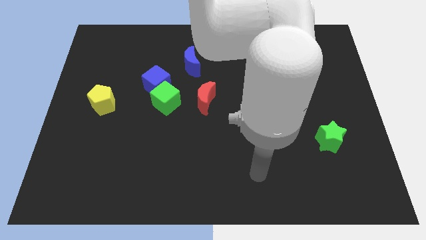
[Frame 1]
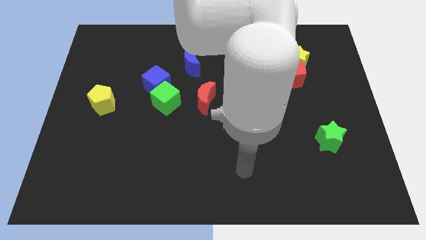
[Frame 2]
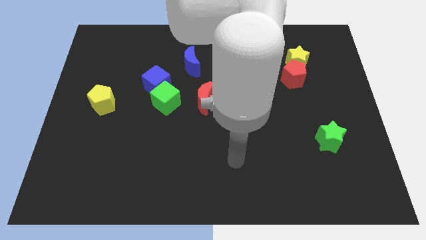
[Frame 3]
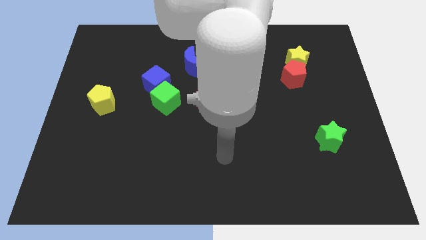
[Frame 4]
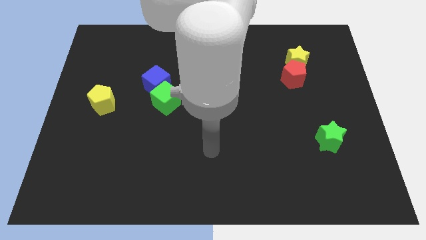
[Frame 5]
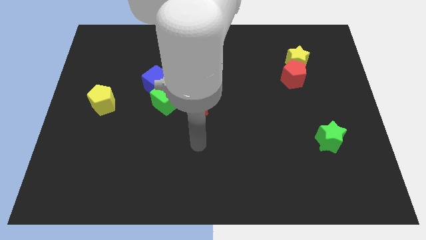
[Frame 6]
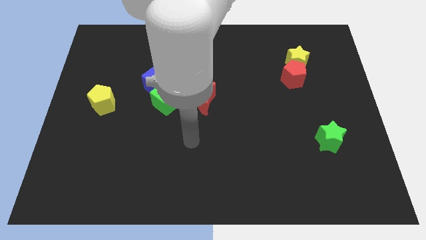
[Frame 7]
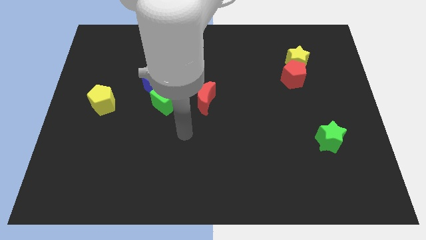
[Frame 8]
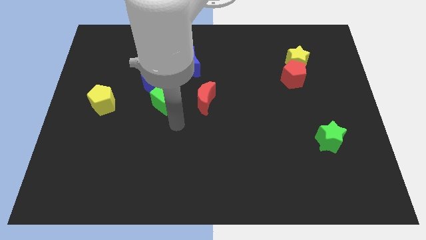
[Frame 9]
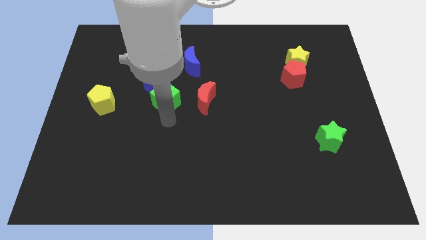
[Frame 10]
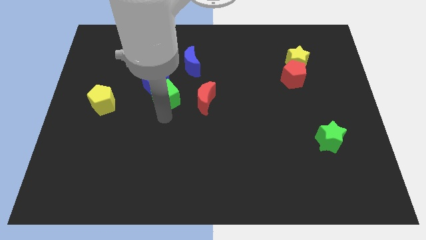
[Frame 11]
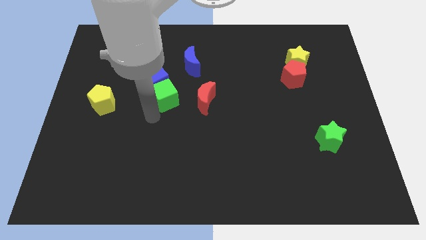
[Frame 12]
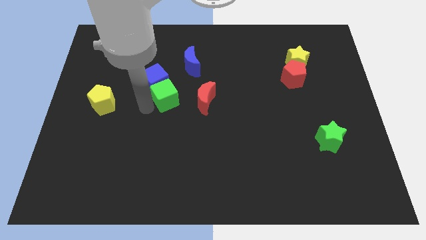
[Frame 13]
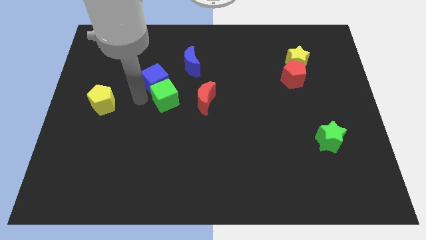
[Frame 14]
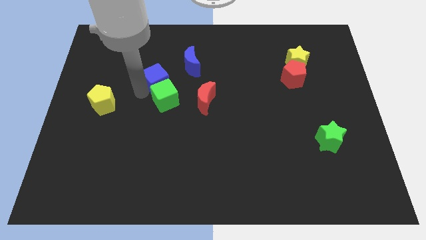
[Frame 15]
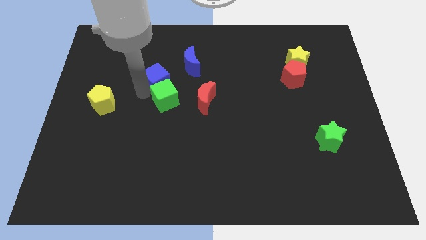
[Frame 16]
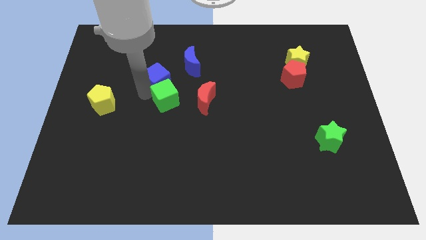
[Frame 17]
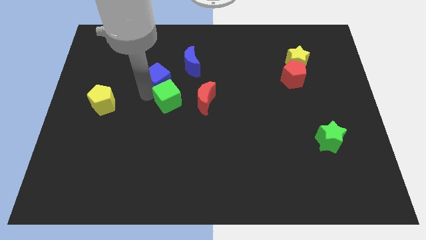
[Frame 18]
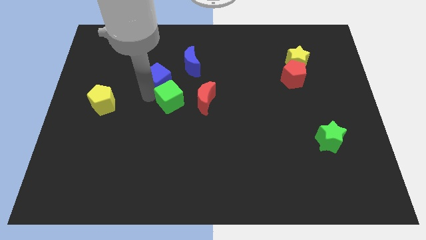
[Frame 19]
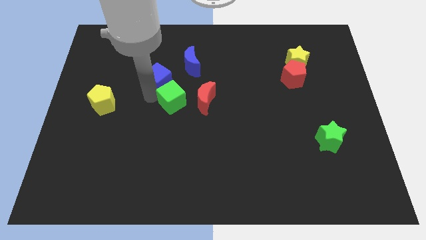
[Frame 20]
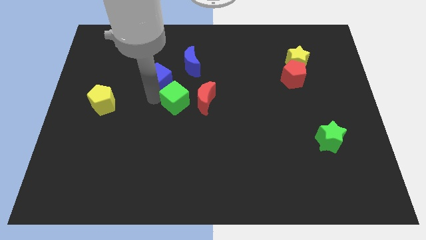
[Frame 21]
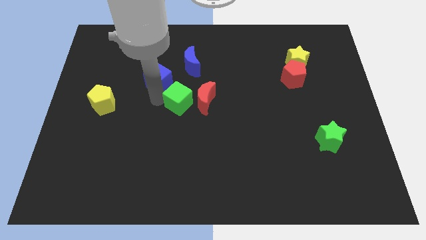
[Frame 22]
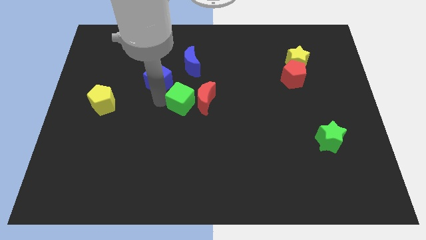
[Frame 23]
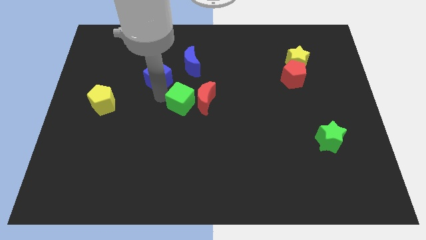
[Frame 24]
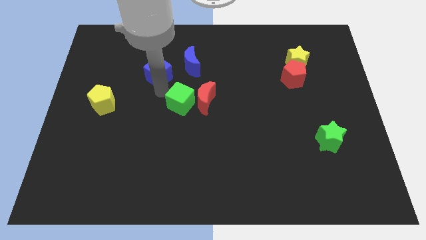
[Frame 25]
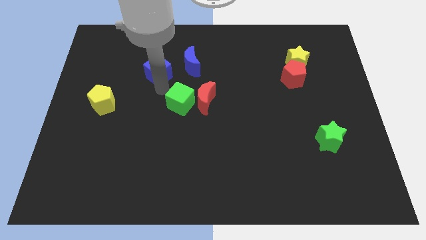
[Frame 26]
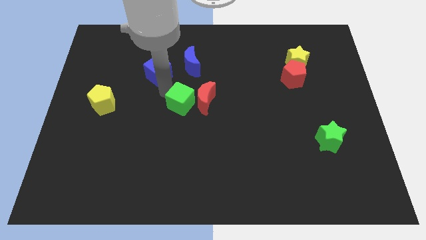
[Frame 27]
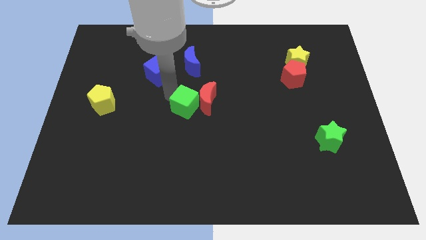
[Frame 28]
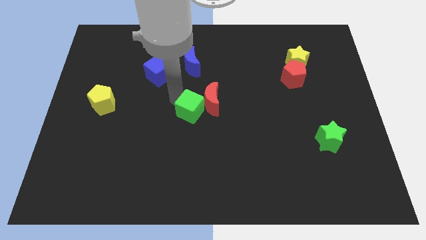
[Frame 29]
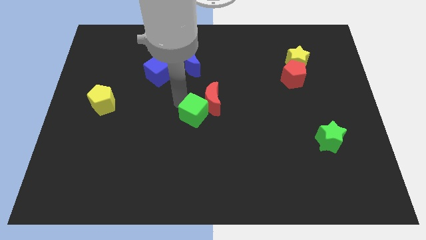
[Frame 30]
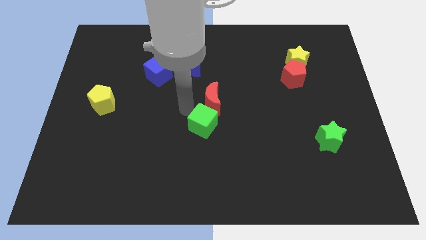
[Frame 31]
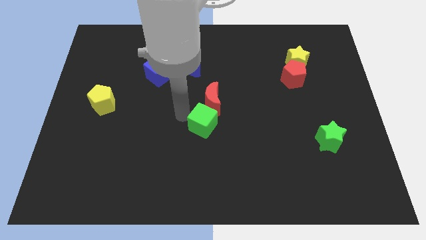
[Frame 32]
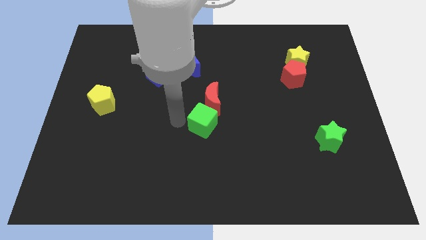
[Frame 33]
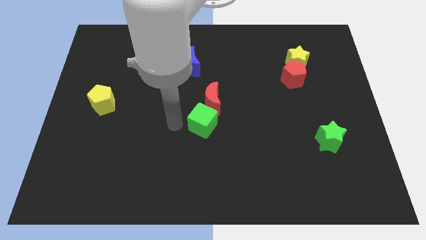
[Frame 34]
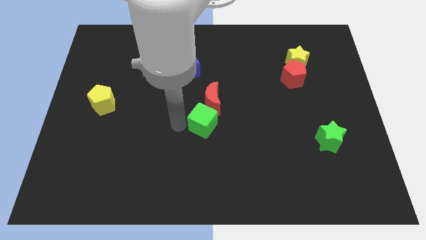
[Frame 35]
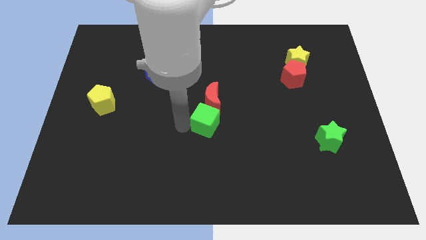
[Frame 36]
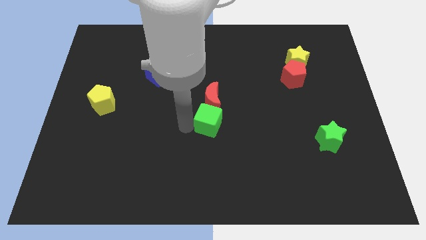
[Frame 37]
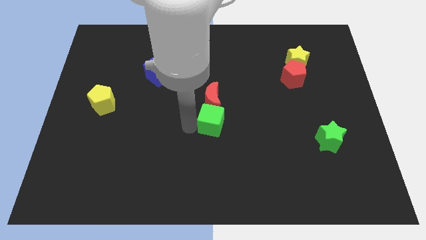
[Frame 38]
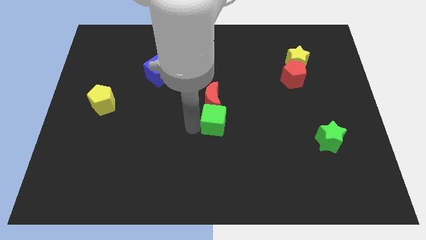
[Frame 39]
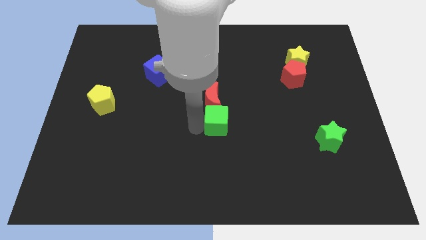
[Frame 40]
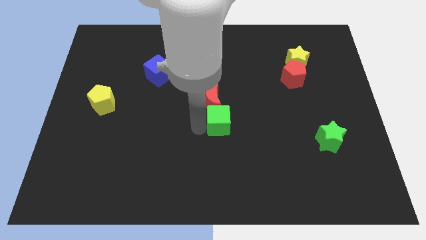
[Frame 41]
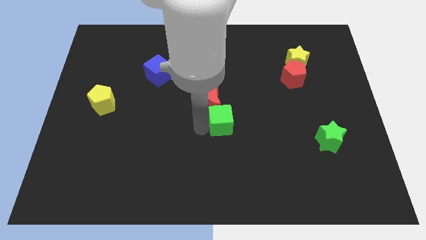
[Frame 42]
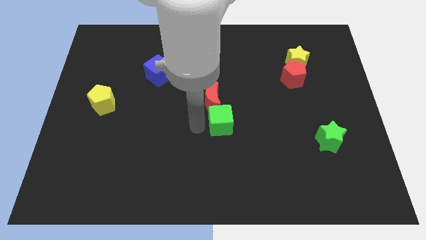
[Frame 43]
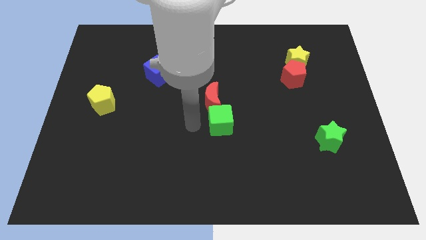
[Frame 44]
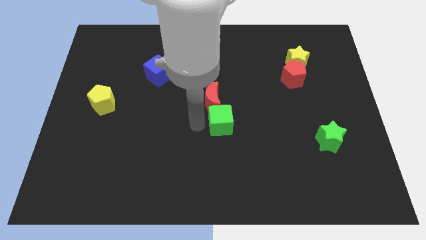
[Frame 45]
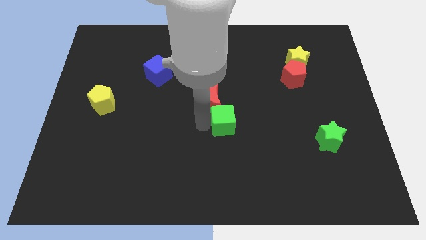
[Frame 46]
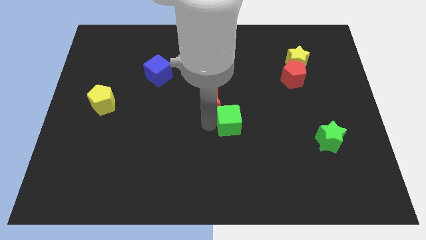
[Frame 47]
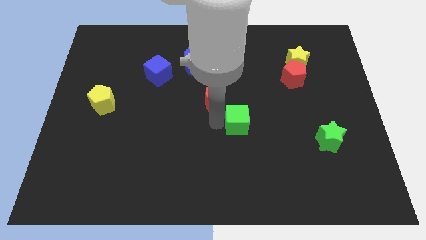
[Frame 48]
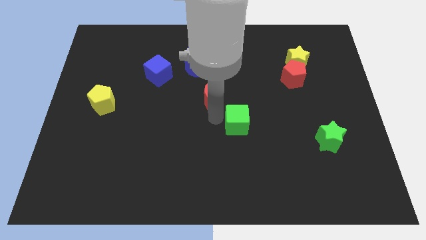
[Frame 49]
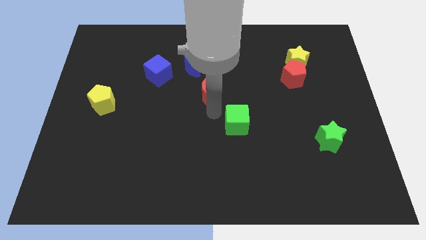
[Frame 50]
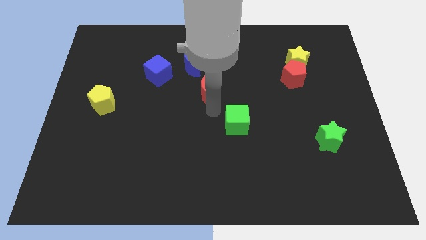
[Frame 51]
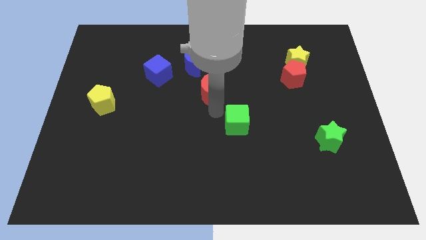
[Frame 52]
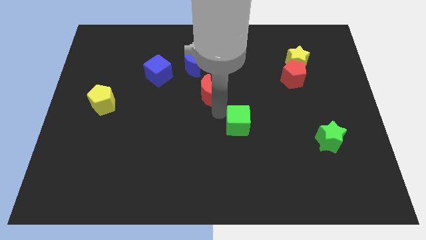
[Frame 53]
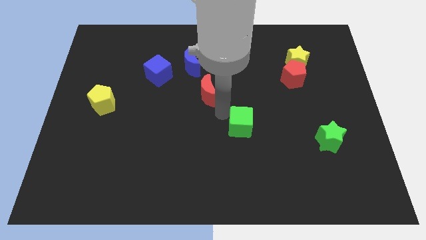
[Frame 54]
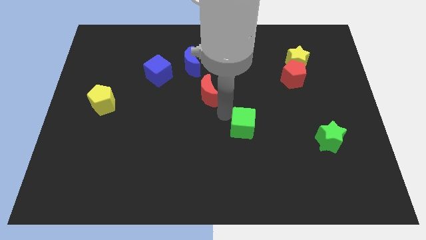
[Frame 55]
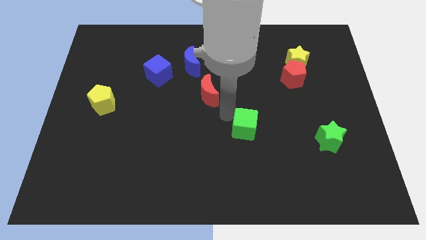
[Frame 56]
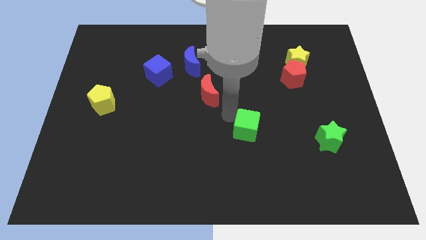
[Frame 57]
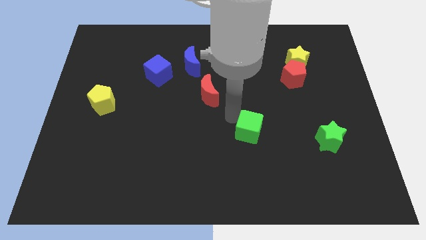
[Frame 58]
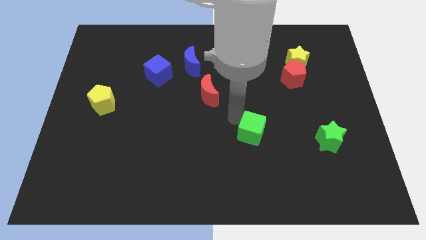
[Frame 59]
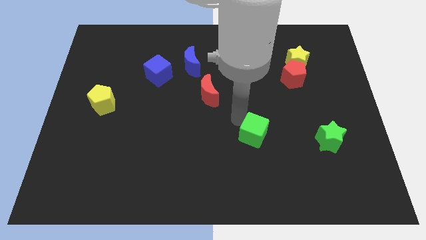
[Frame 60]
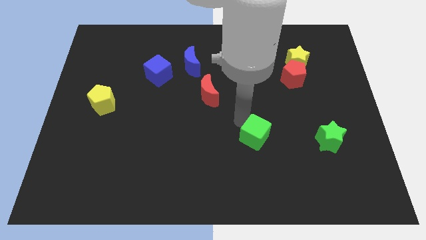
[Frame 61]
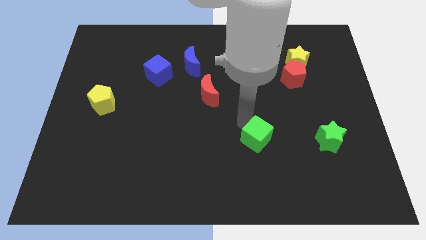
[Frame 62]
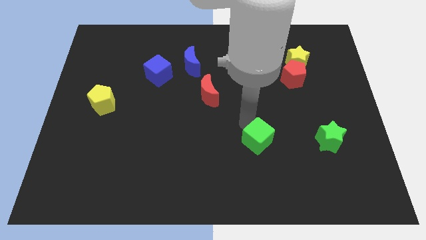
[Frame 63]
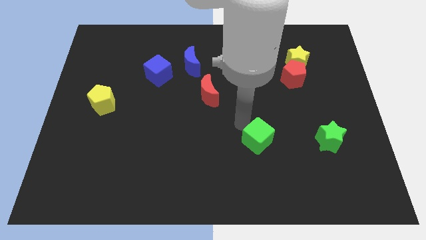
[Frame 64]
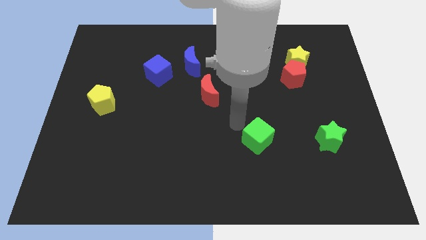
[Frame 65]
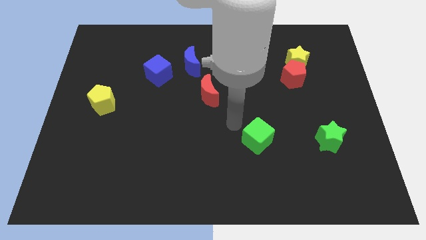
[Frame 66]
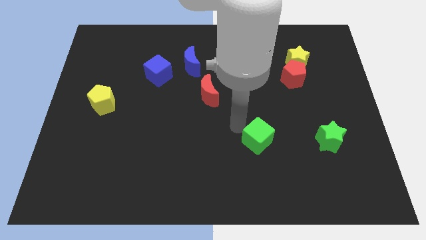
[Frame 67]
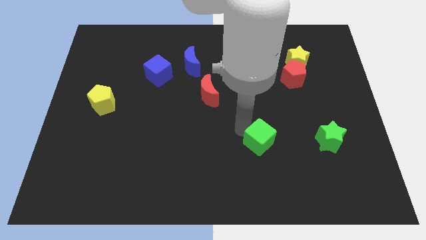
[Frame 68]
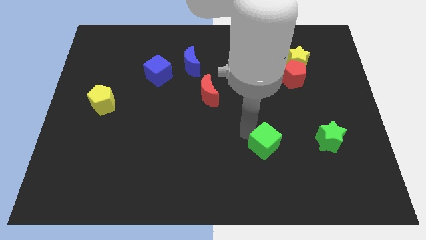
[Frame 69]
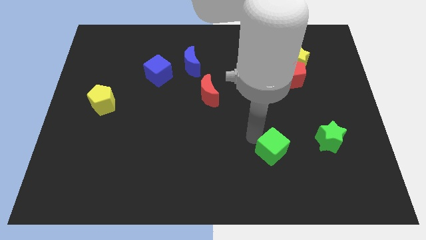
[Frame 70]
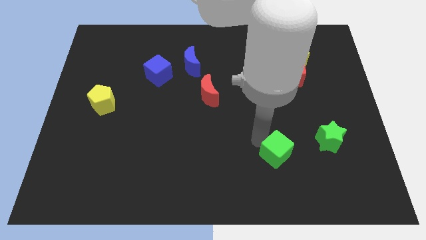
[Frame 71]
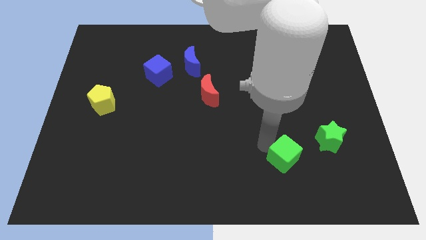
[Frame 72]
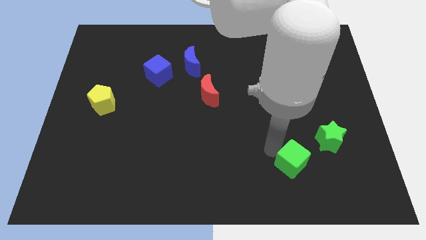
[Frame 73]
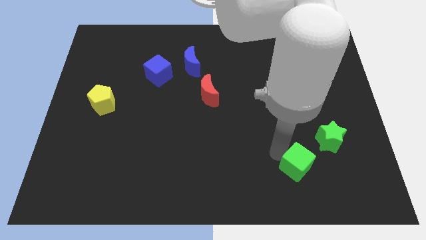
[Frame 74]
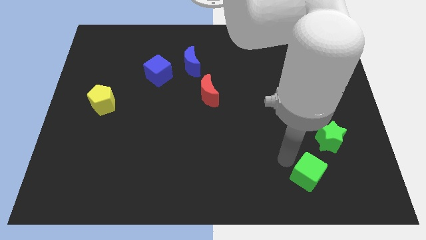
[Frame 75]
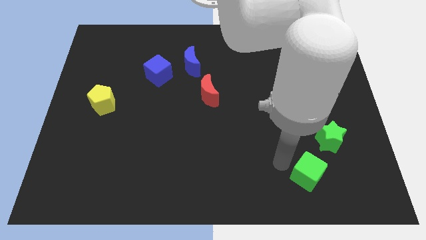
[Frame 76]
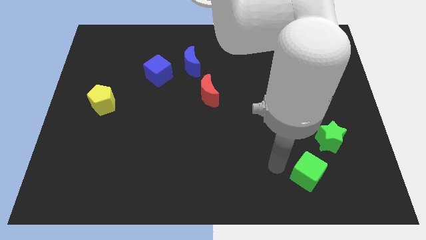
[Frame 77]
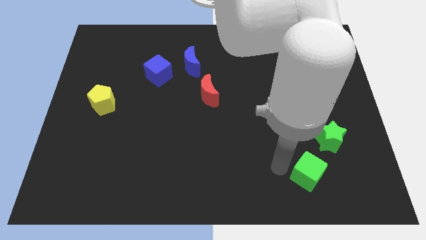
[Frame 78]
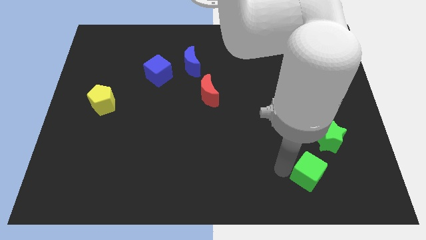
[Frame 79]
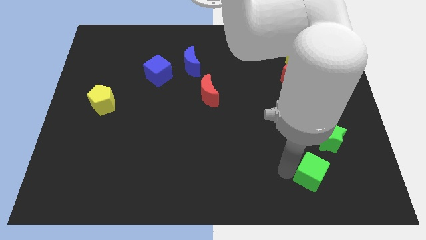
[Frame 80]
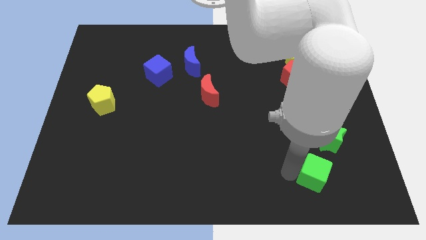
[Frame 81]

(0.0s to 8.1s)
slide the green cube to the bottom of the green star
